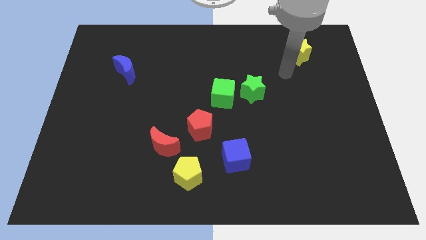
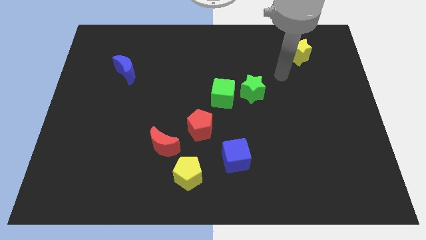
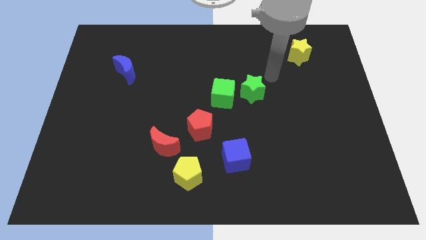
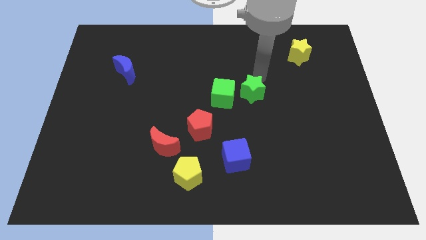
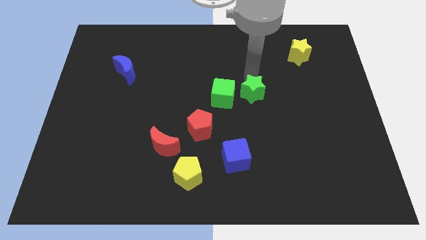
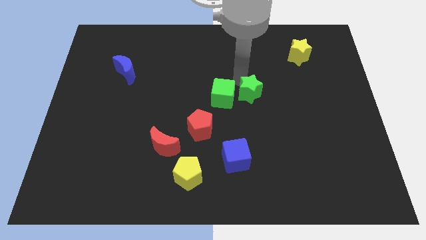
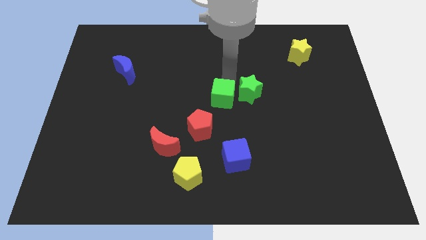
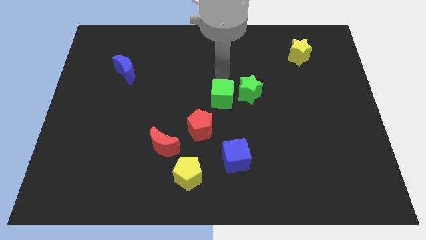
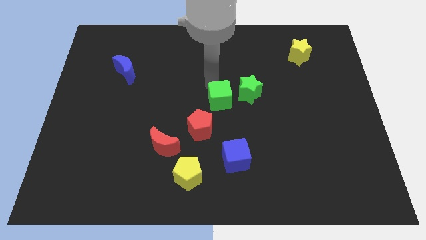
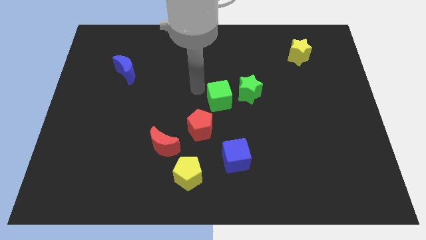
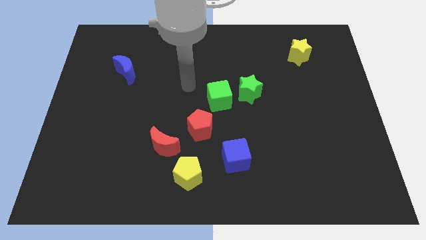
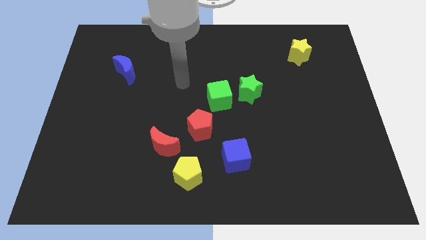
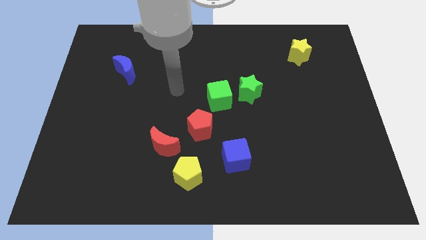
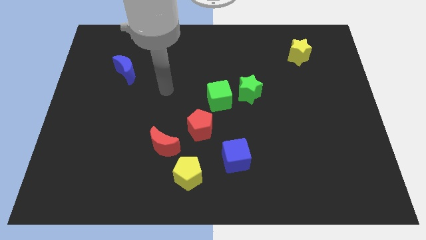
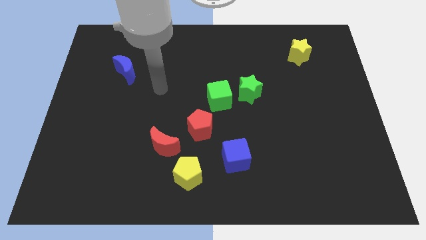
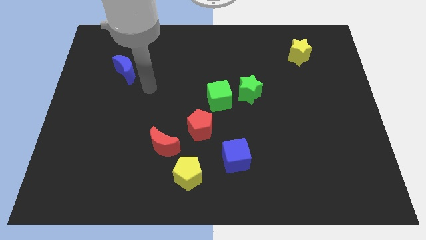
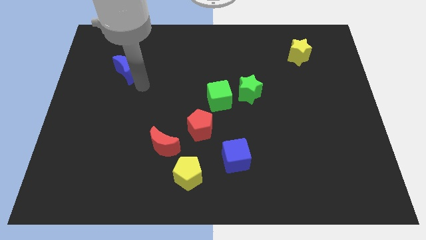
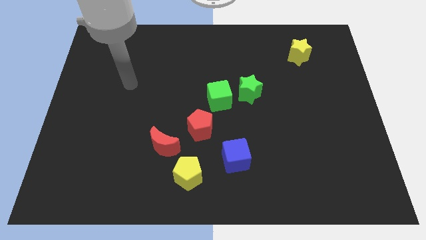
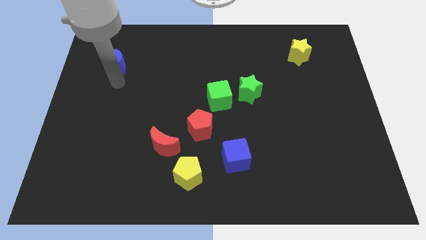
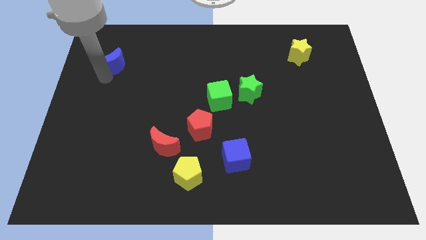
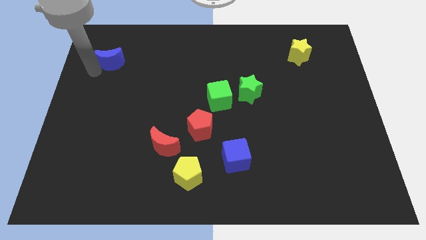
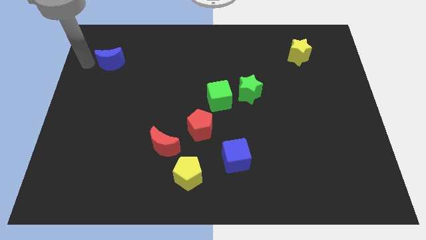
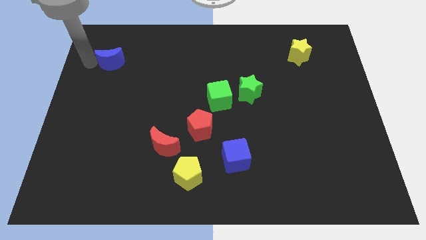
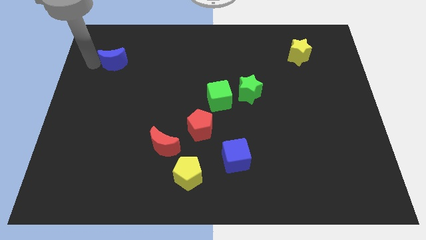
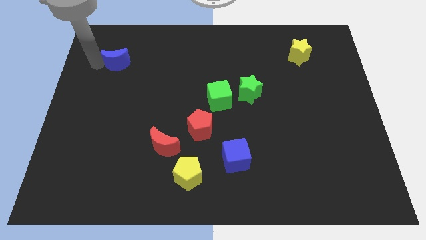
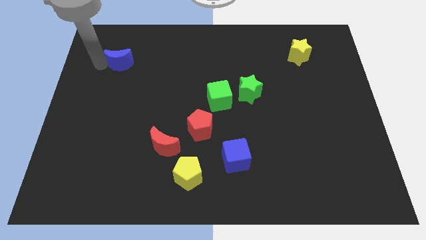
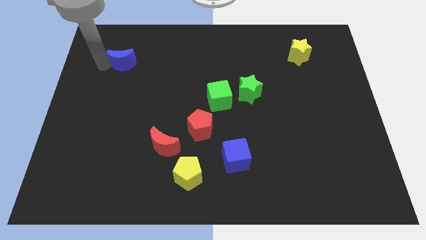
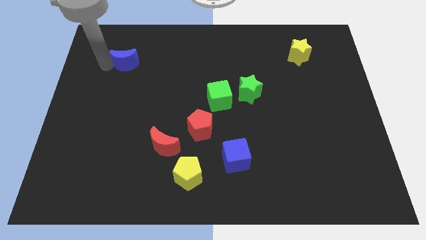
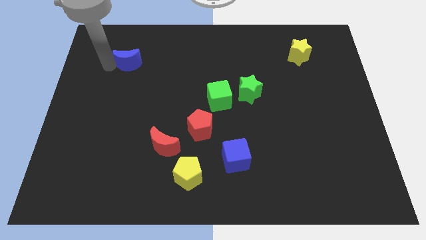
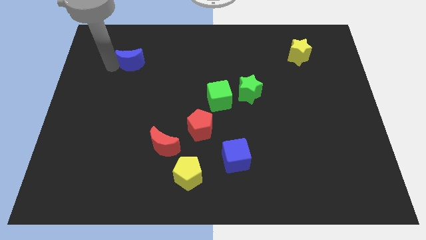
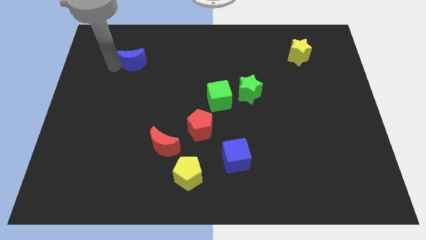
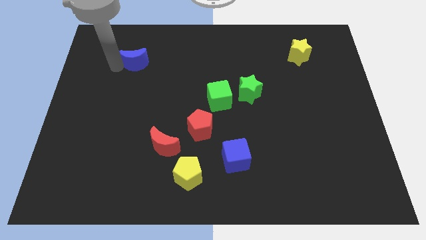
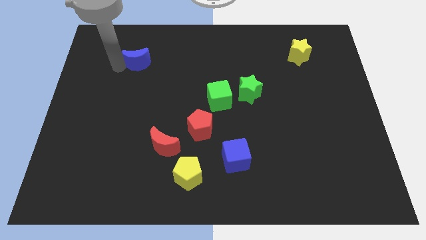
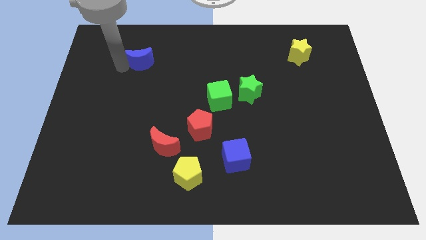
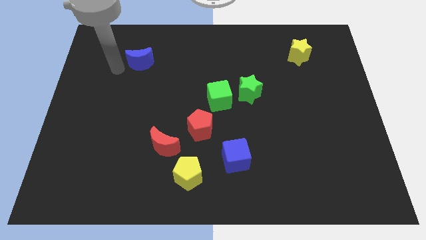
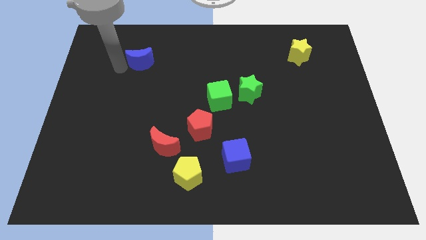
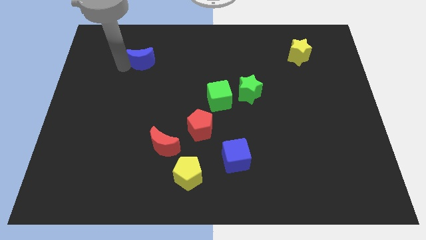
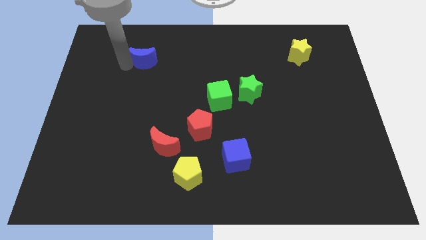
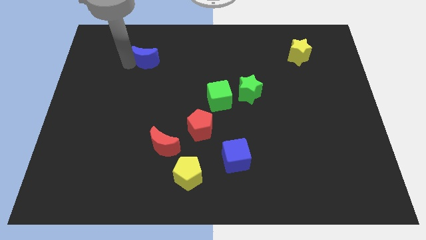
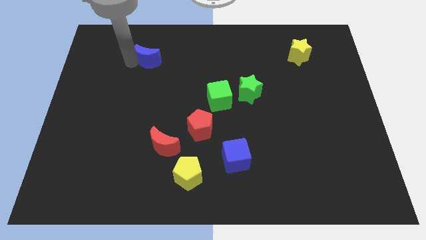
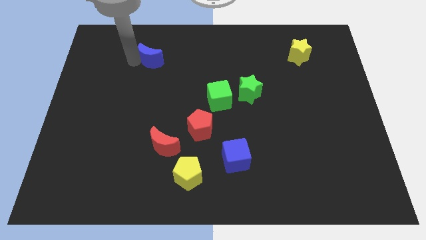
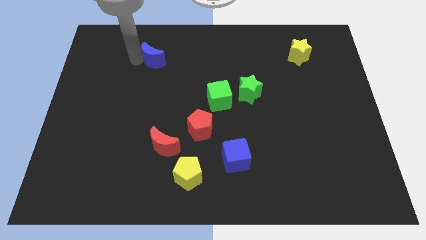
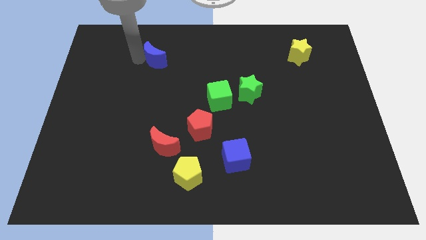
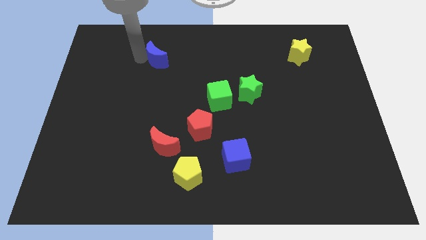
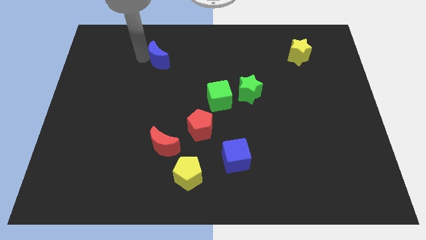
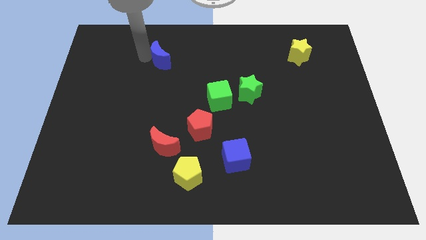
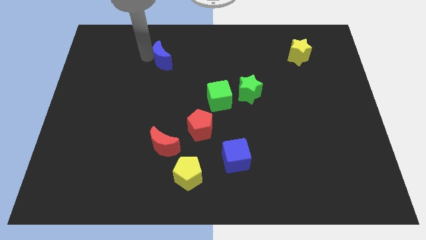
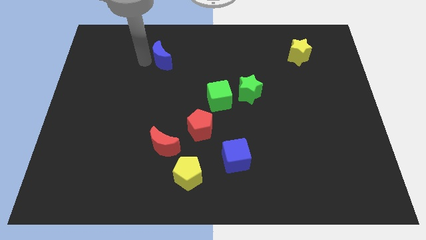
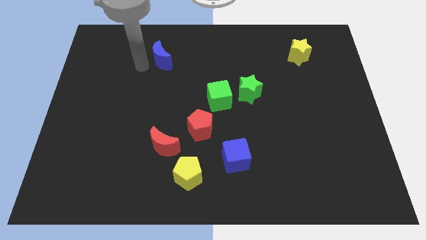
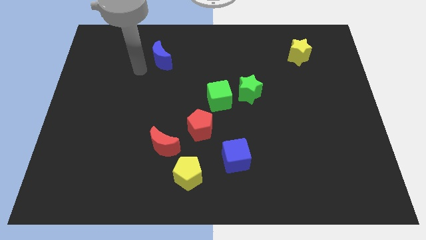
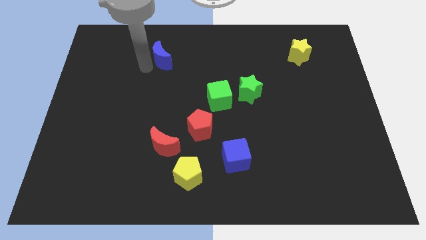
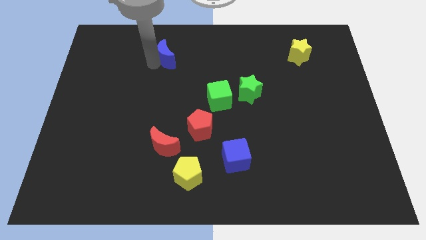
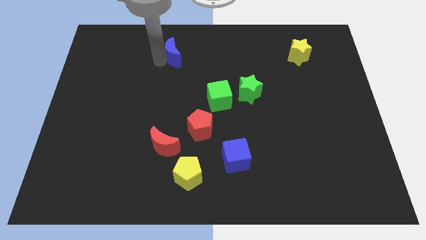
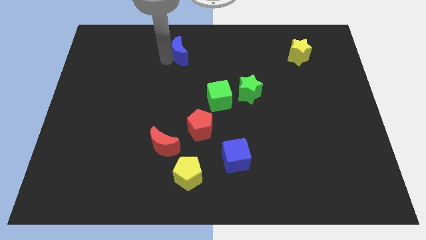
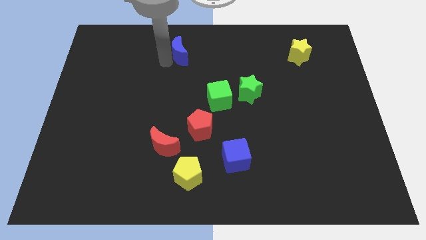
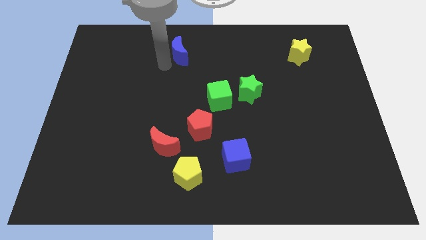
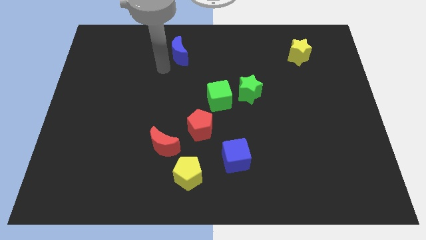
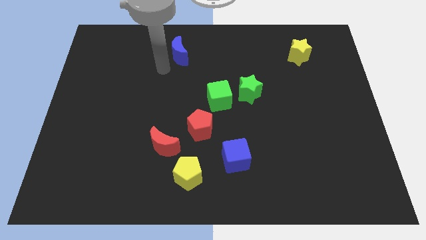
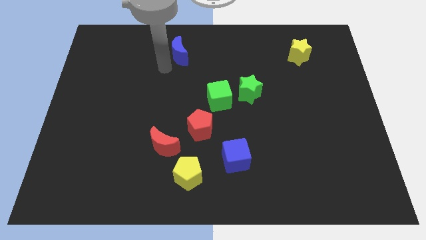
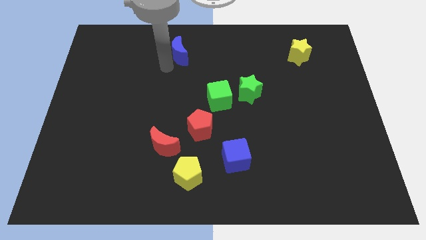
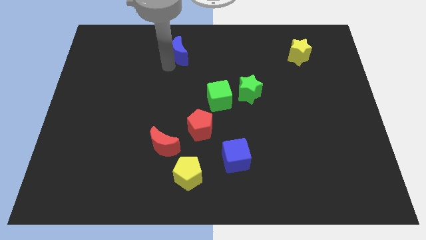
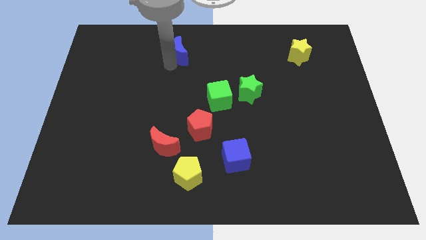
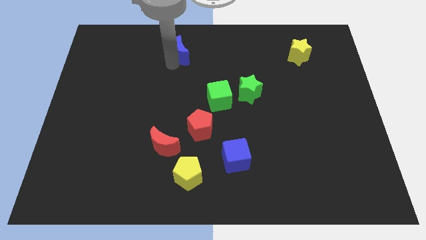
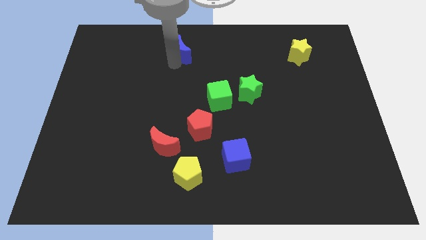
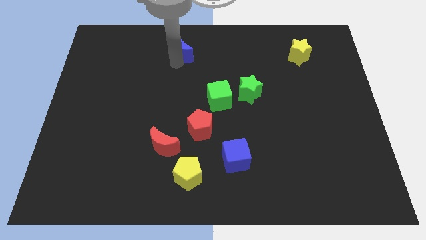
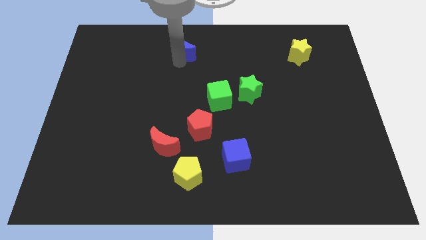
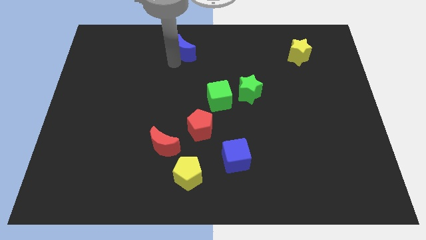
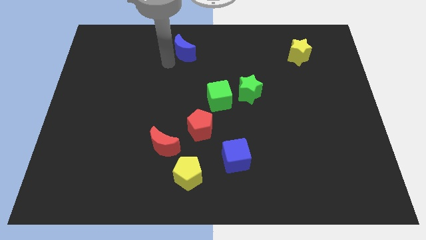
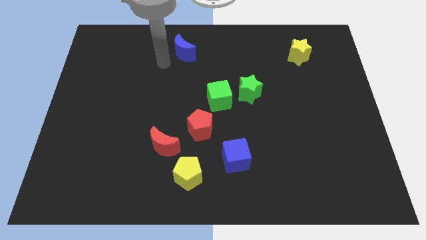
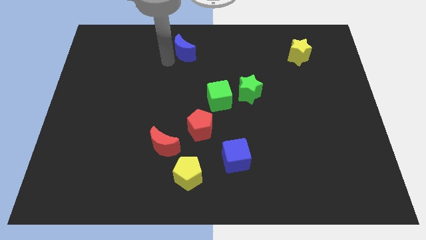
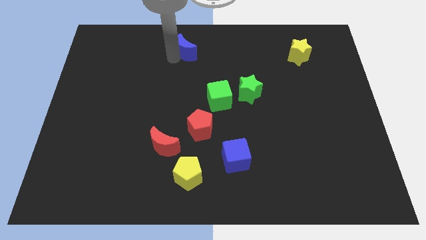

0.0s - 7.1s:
slide the blue moon to the towards your base
